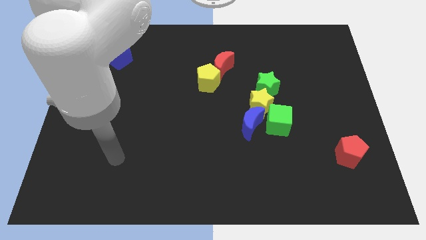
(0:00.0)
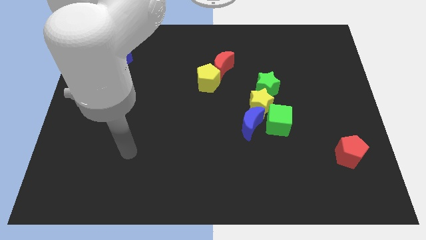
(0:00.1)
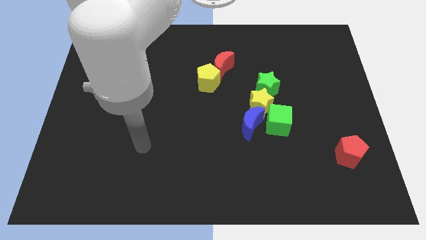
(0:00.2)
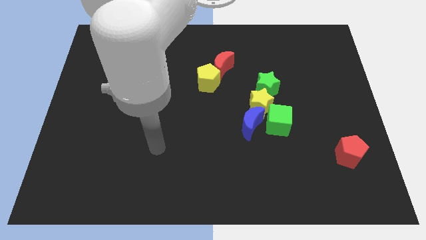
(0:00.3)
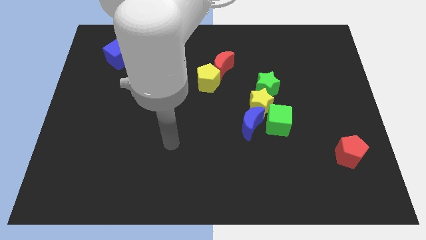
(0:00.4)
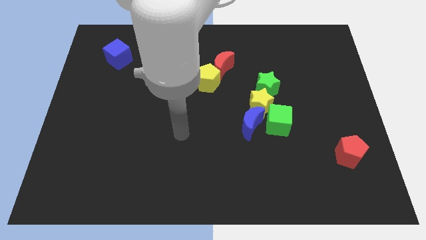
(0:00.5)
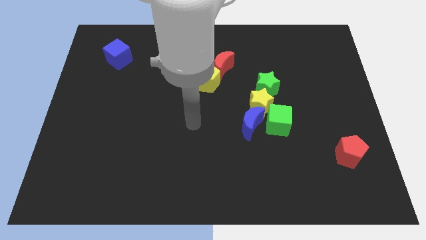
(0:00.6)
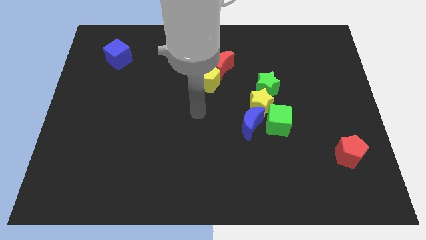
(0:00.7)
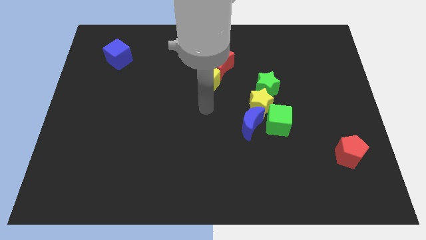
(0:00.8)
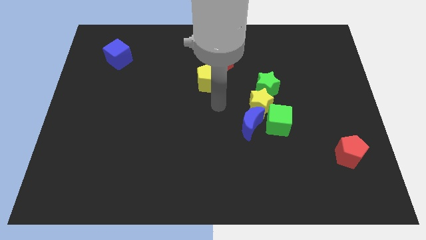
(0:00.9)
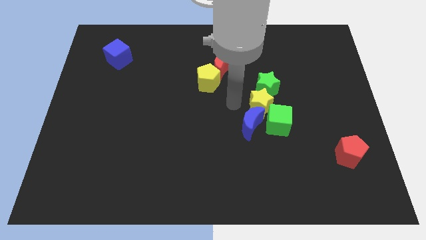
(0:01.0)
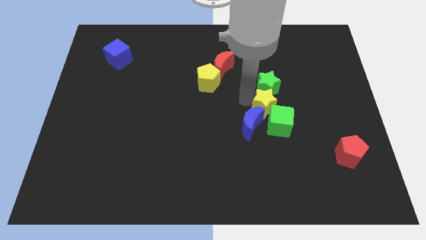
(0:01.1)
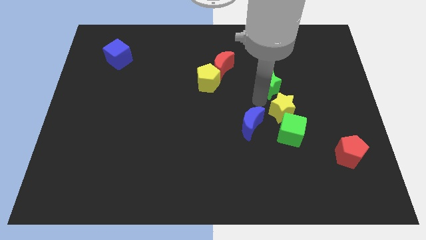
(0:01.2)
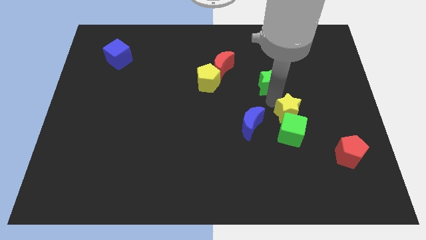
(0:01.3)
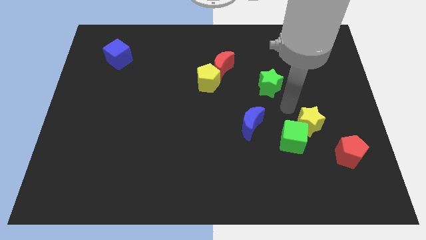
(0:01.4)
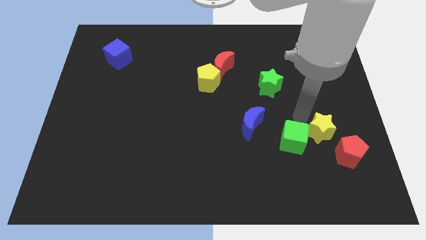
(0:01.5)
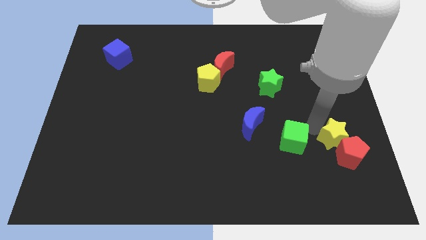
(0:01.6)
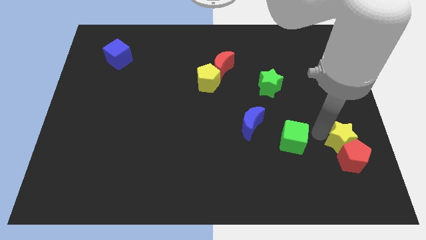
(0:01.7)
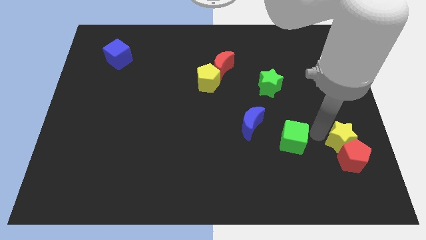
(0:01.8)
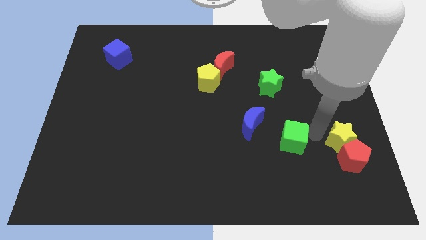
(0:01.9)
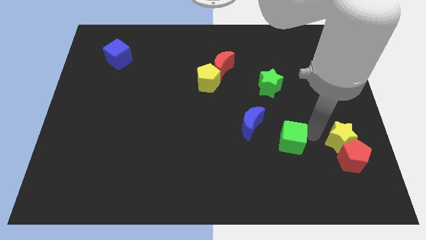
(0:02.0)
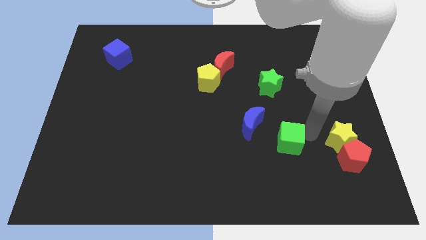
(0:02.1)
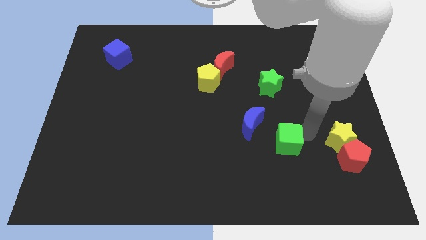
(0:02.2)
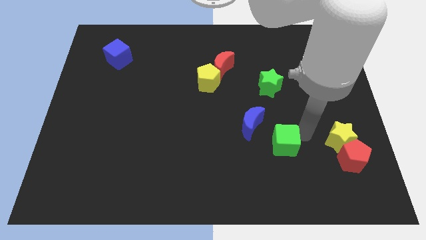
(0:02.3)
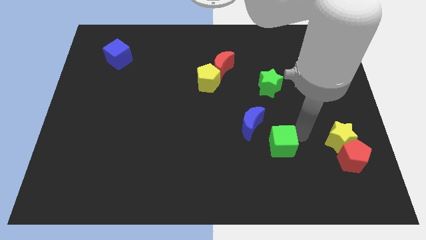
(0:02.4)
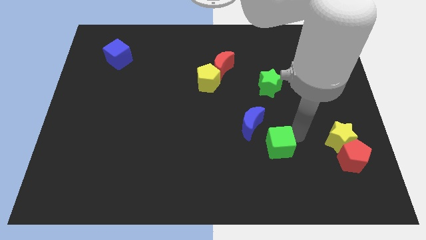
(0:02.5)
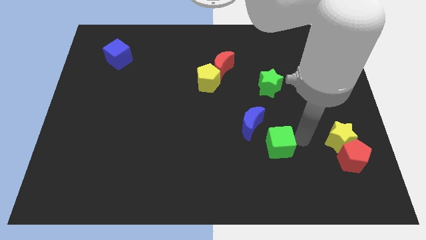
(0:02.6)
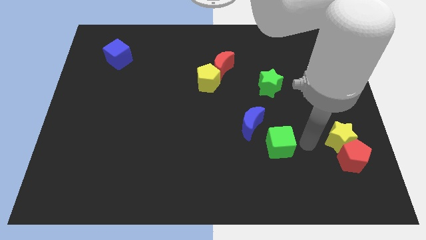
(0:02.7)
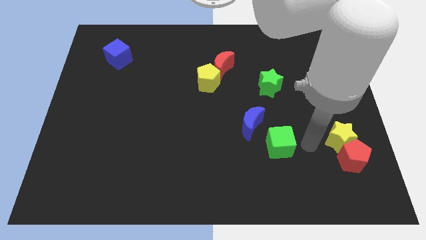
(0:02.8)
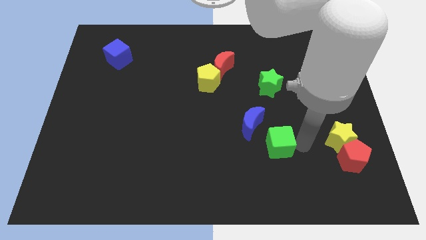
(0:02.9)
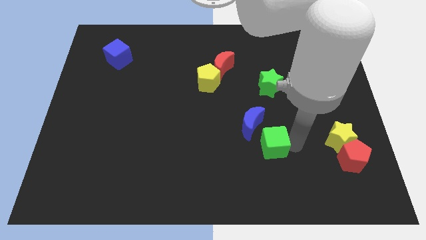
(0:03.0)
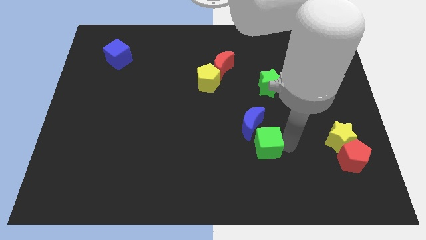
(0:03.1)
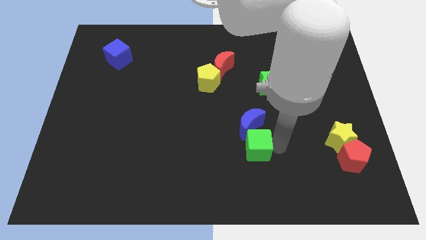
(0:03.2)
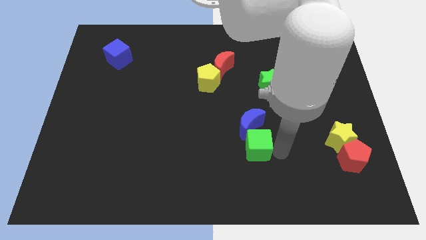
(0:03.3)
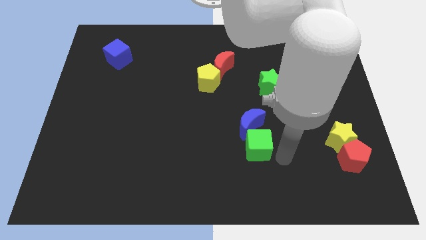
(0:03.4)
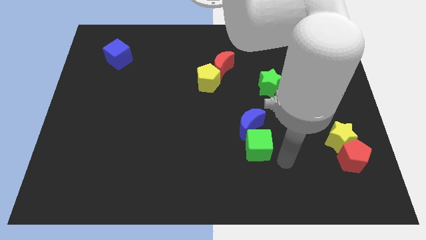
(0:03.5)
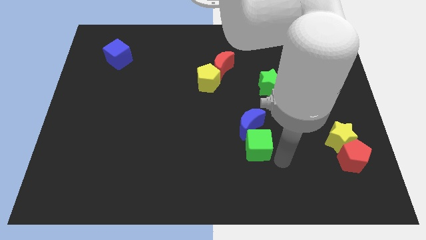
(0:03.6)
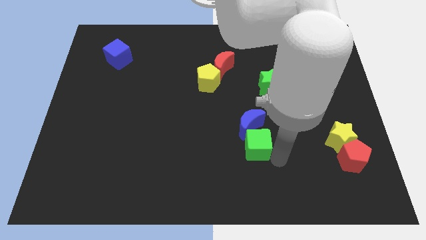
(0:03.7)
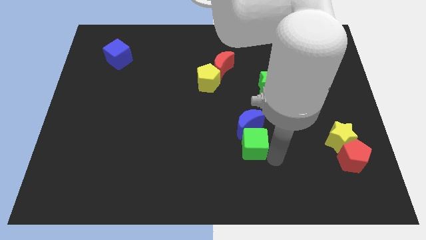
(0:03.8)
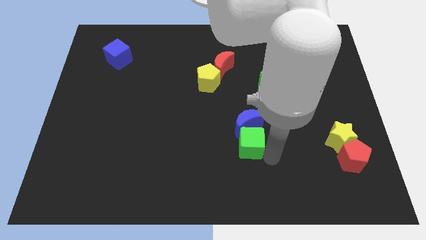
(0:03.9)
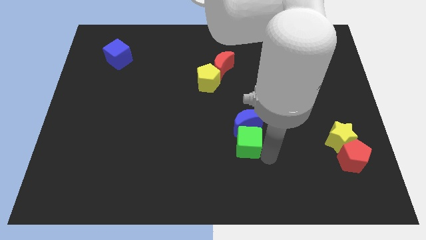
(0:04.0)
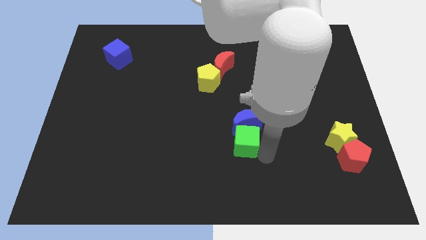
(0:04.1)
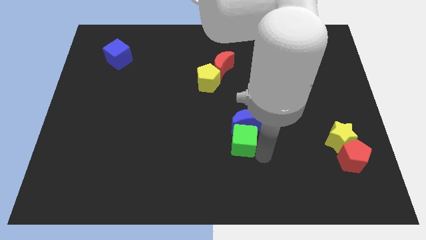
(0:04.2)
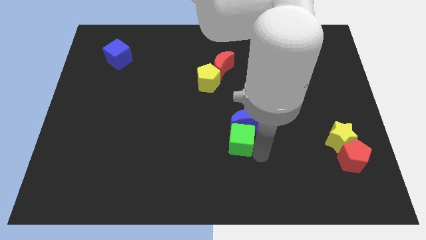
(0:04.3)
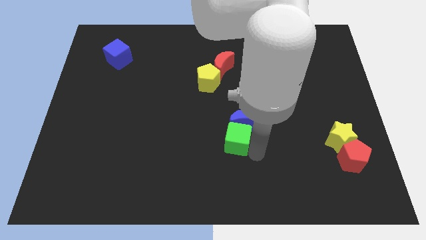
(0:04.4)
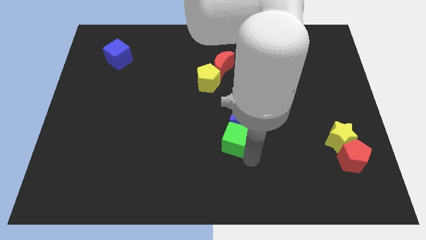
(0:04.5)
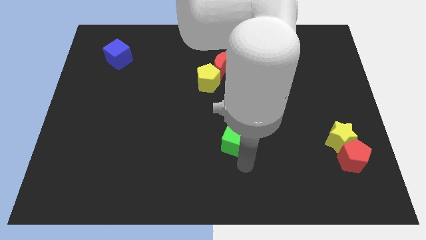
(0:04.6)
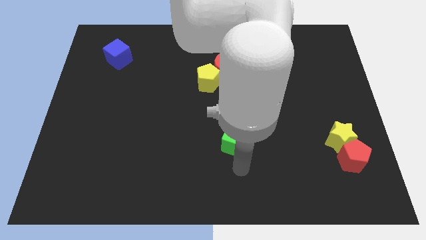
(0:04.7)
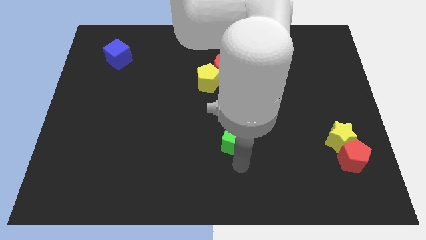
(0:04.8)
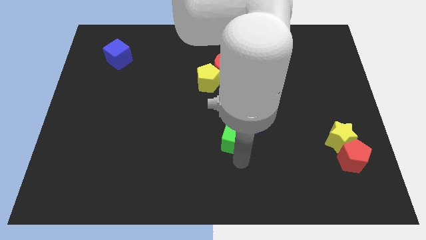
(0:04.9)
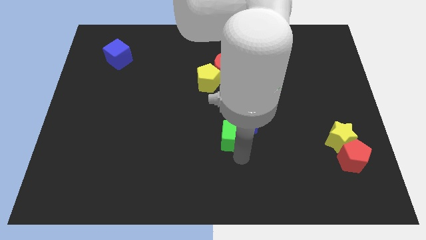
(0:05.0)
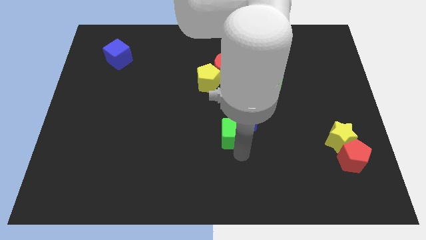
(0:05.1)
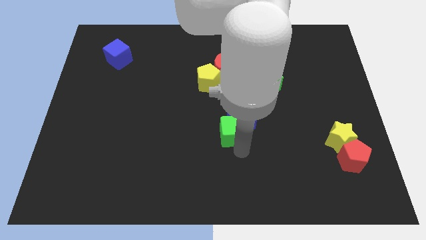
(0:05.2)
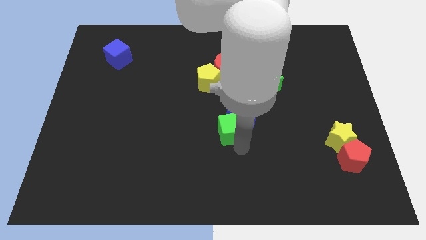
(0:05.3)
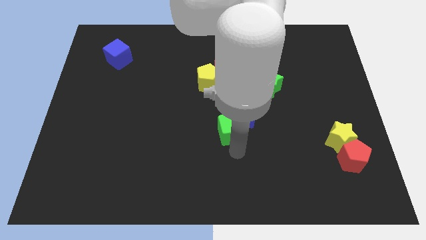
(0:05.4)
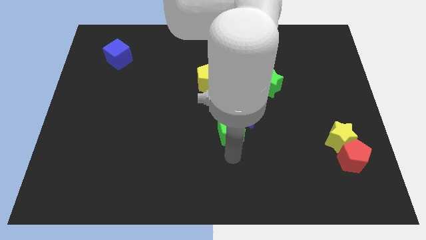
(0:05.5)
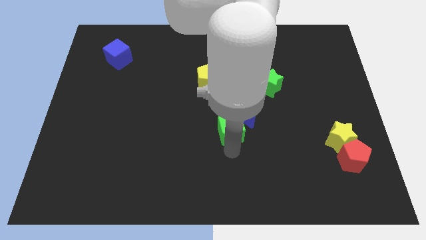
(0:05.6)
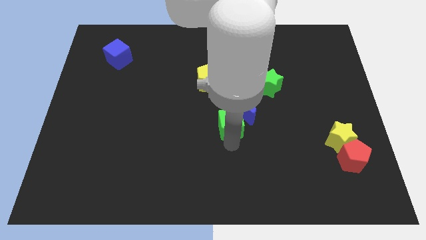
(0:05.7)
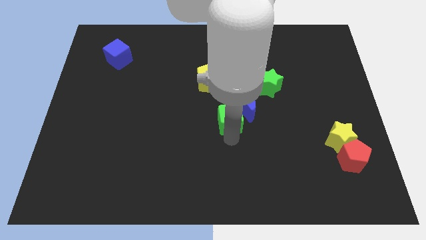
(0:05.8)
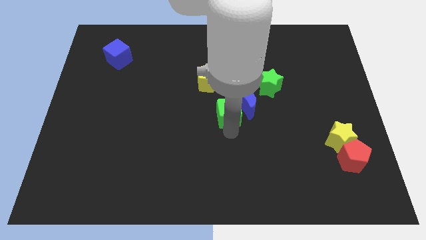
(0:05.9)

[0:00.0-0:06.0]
slide the green cube to the bottom right of the yellow pentagon

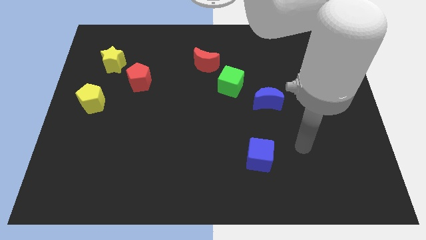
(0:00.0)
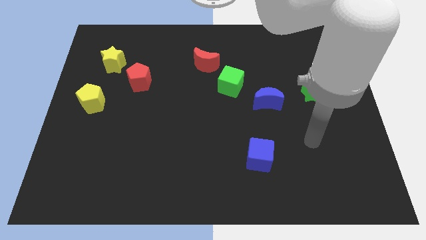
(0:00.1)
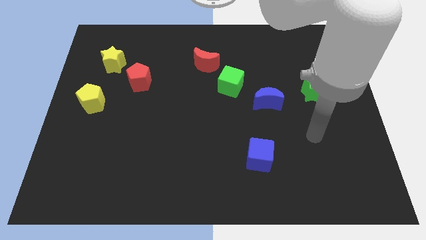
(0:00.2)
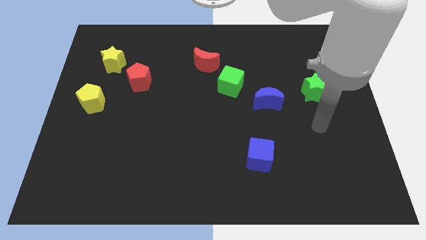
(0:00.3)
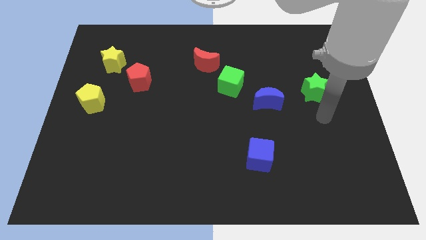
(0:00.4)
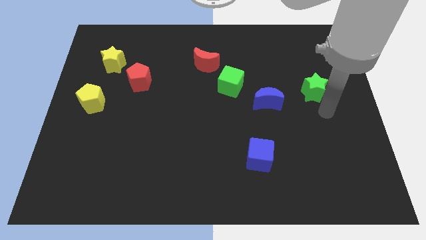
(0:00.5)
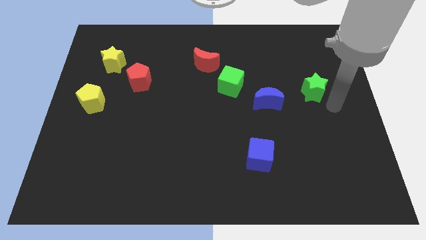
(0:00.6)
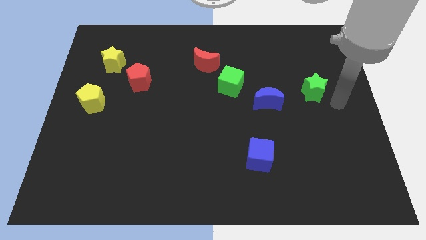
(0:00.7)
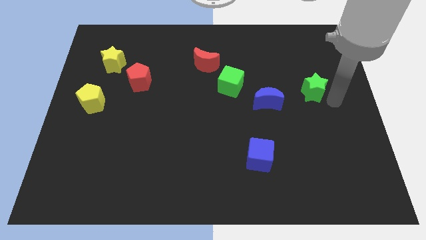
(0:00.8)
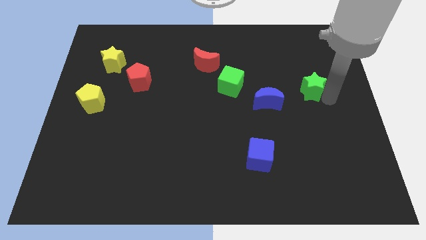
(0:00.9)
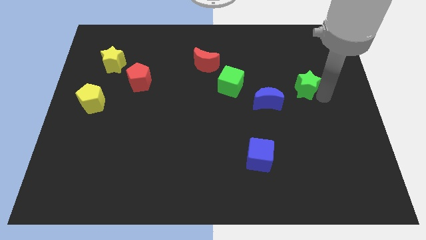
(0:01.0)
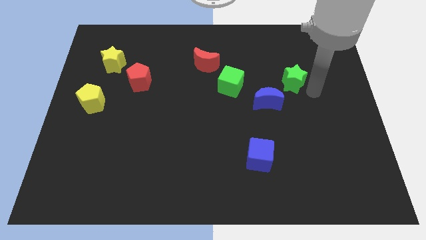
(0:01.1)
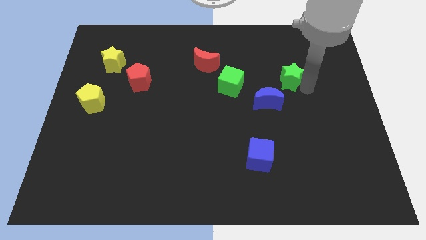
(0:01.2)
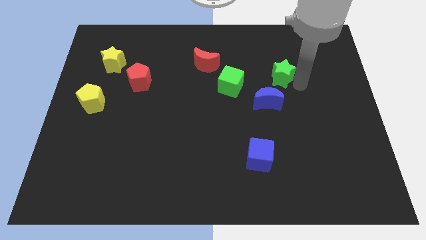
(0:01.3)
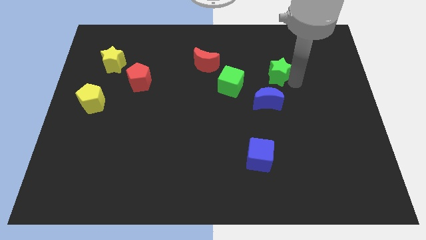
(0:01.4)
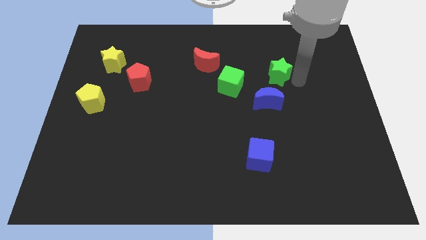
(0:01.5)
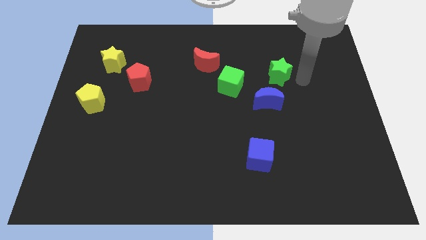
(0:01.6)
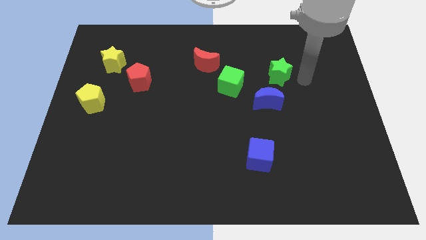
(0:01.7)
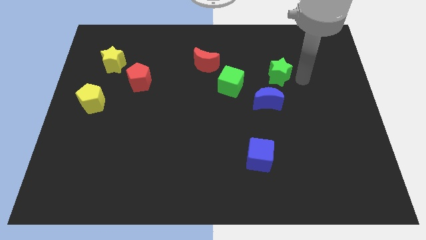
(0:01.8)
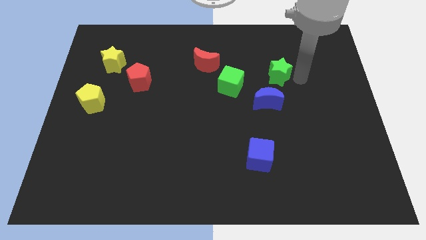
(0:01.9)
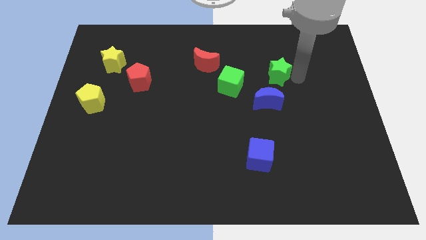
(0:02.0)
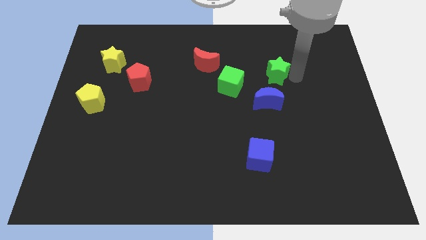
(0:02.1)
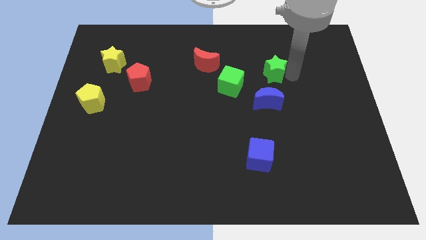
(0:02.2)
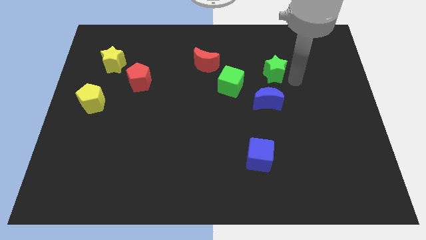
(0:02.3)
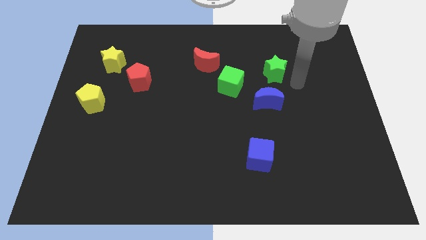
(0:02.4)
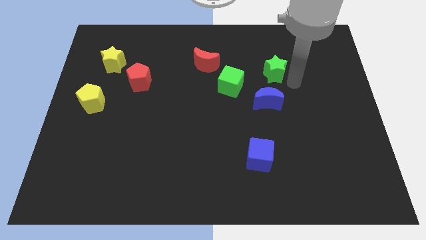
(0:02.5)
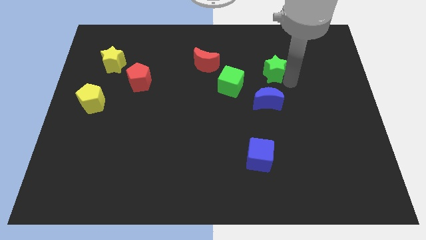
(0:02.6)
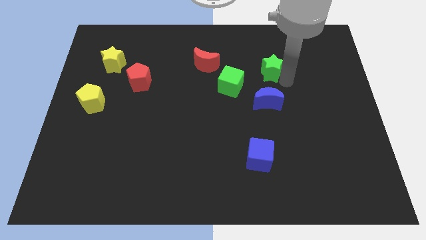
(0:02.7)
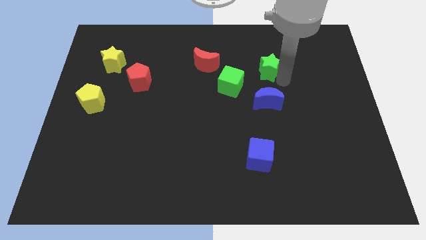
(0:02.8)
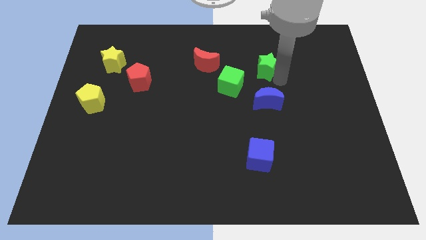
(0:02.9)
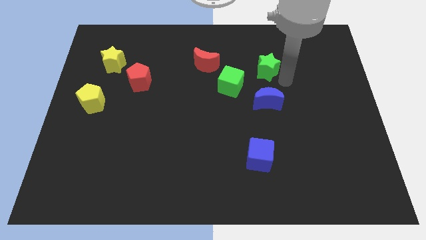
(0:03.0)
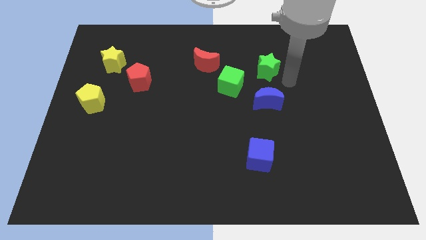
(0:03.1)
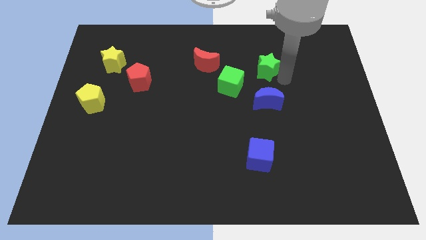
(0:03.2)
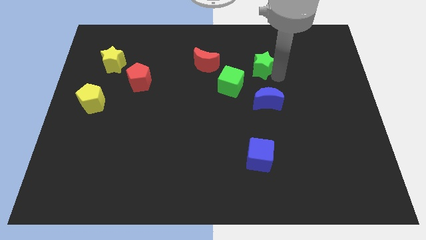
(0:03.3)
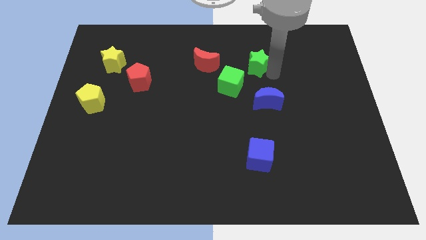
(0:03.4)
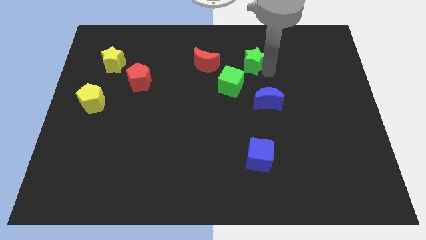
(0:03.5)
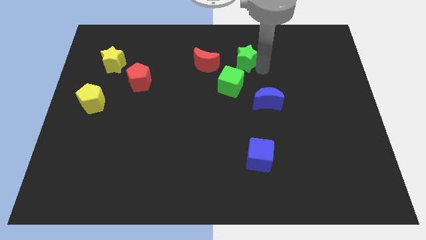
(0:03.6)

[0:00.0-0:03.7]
put the green star to the top of the green cube
